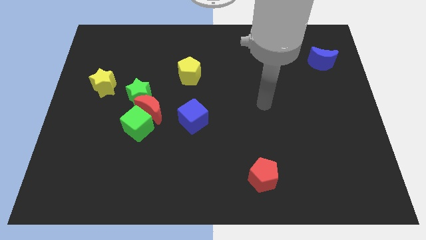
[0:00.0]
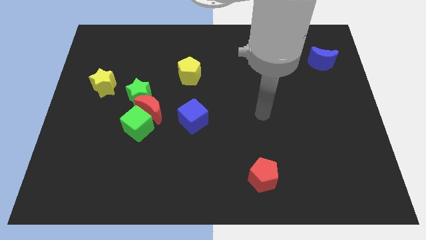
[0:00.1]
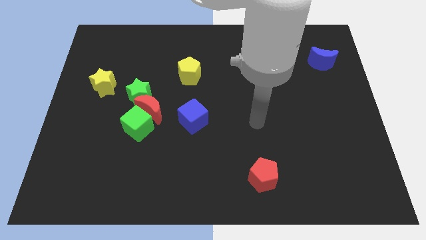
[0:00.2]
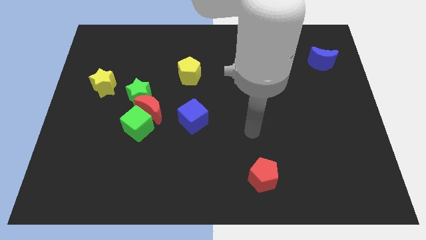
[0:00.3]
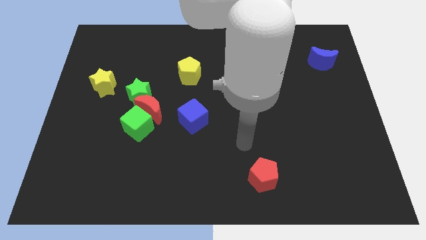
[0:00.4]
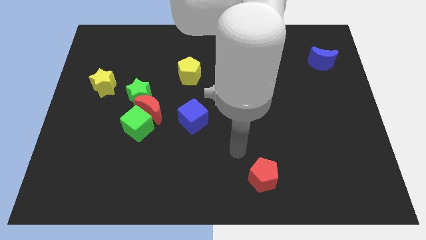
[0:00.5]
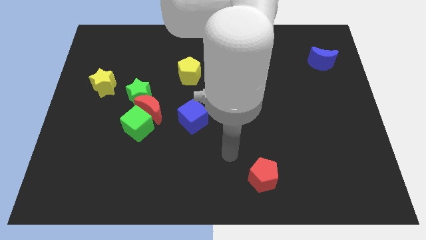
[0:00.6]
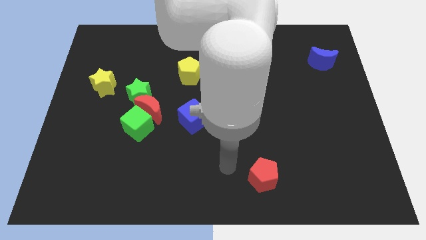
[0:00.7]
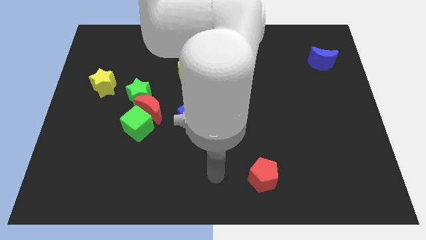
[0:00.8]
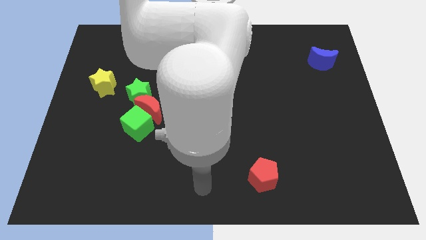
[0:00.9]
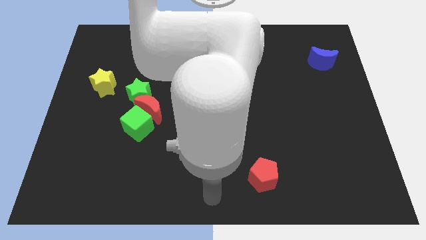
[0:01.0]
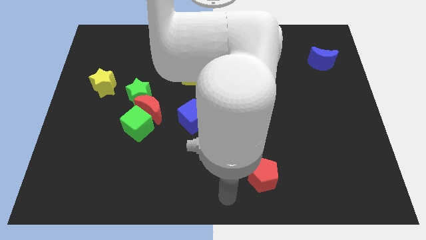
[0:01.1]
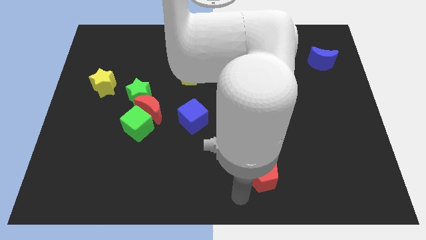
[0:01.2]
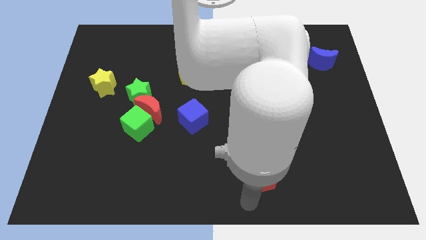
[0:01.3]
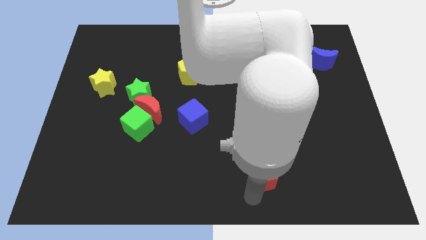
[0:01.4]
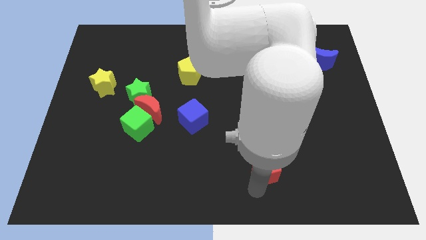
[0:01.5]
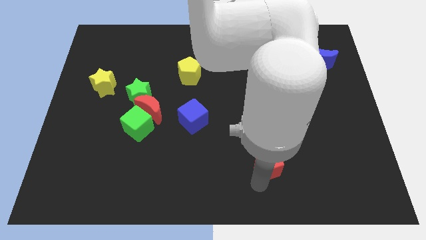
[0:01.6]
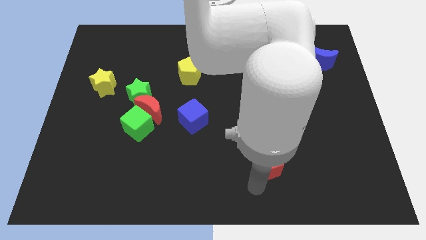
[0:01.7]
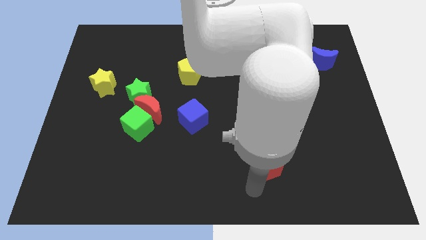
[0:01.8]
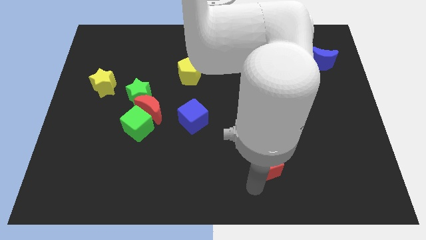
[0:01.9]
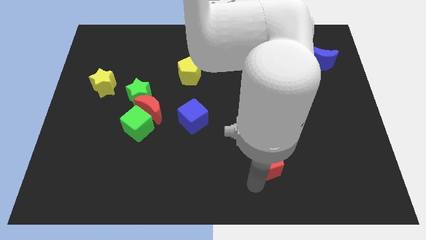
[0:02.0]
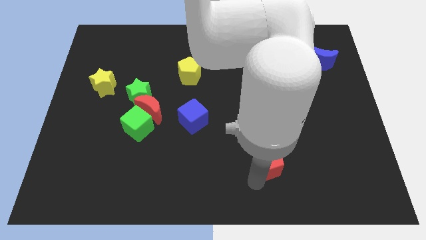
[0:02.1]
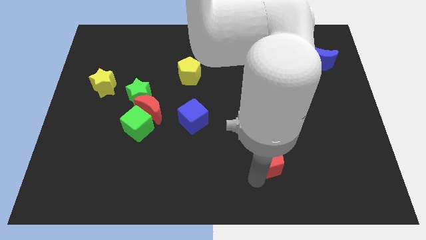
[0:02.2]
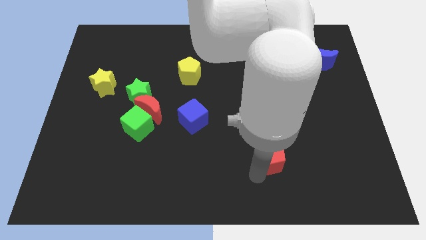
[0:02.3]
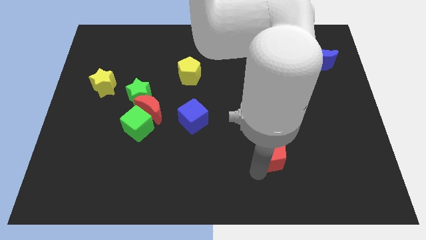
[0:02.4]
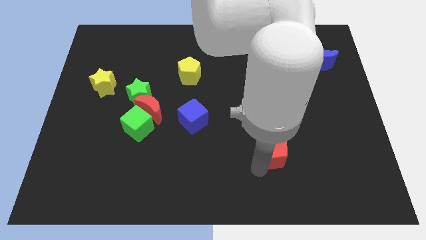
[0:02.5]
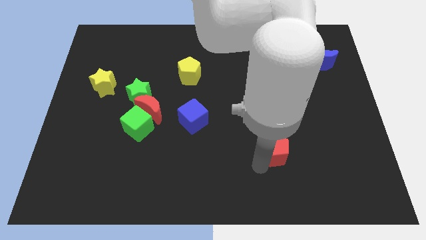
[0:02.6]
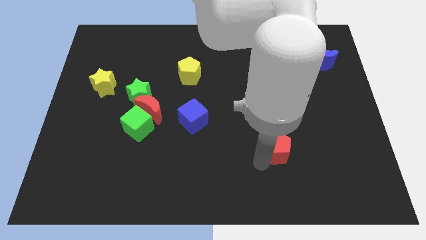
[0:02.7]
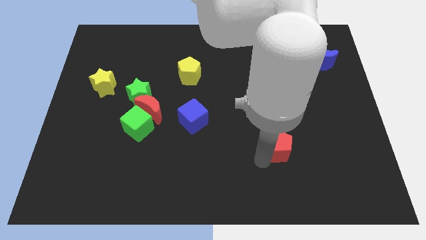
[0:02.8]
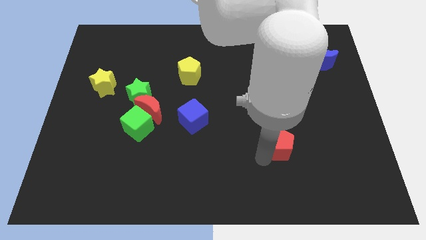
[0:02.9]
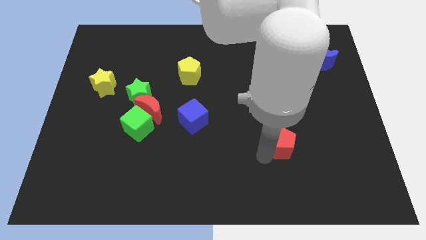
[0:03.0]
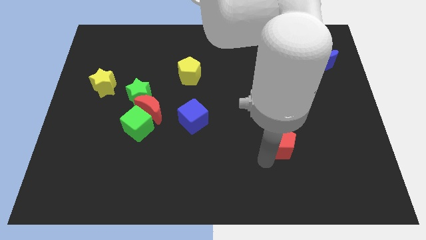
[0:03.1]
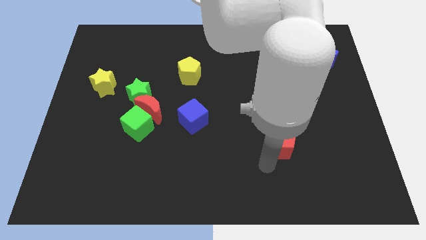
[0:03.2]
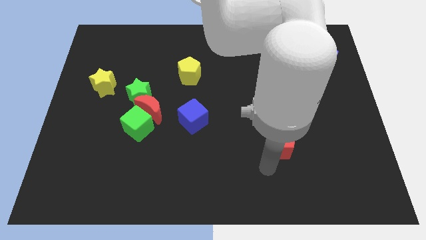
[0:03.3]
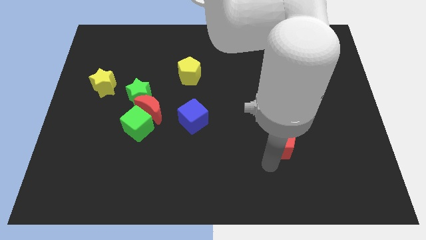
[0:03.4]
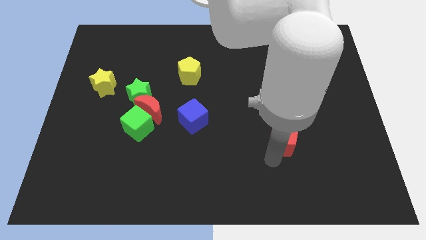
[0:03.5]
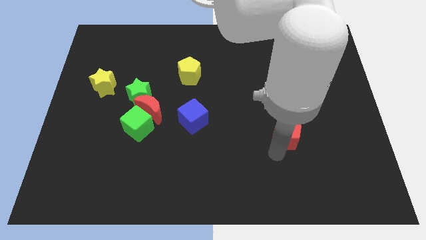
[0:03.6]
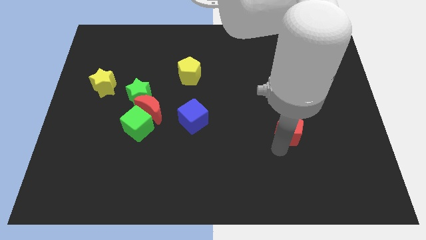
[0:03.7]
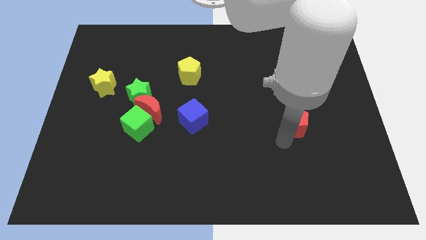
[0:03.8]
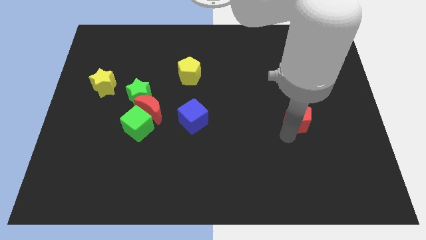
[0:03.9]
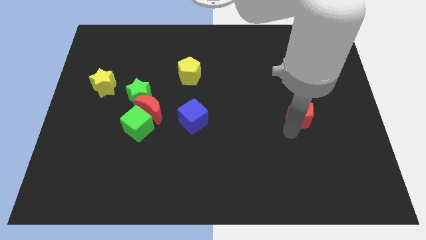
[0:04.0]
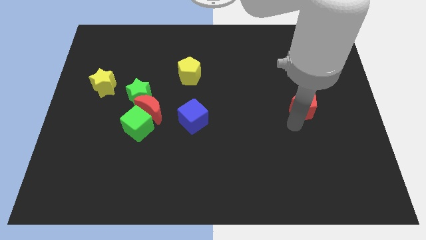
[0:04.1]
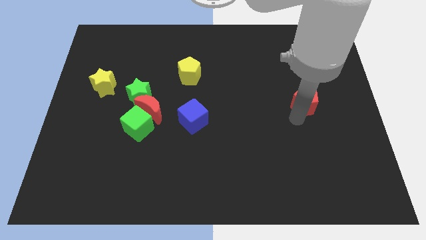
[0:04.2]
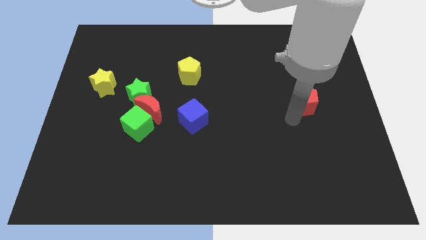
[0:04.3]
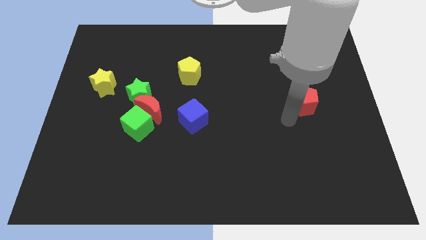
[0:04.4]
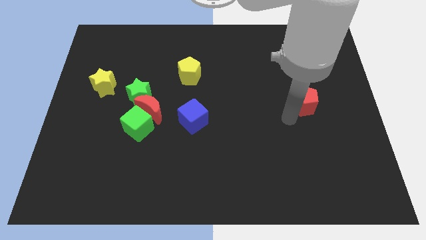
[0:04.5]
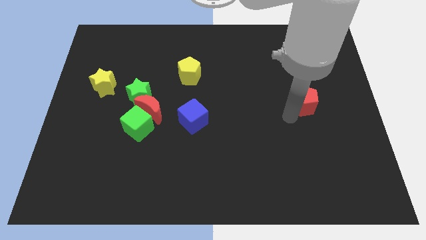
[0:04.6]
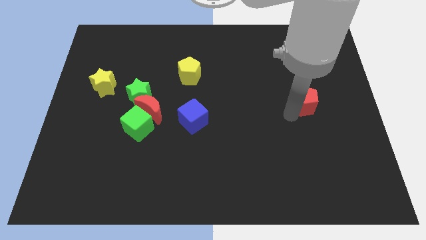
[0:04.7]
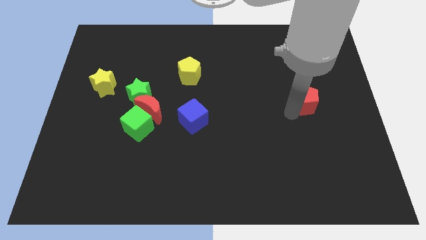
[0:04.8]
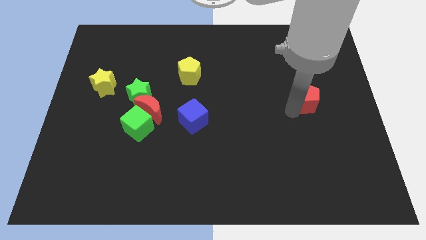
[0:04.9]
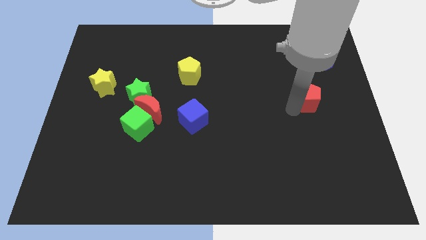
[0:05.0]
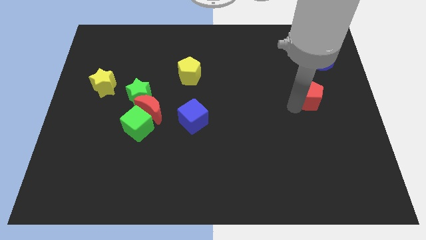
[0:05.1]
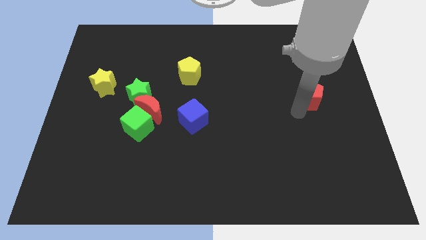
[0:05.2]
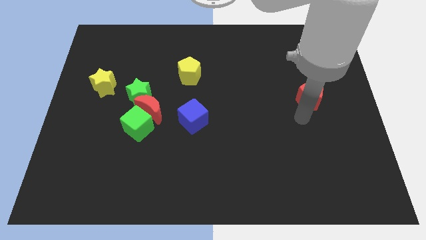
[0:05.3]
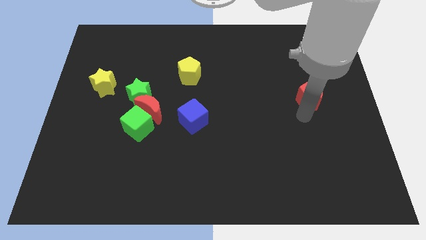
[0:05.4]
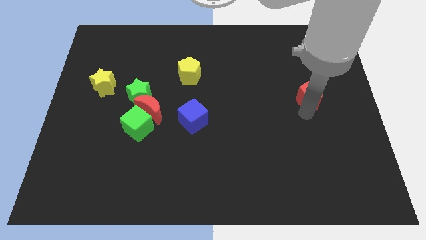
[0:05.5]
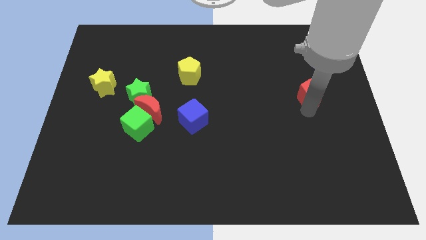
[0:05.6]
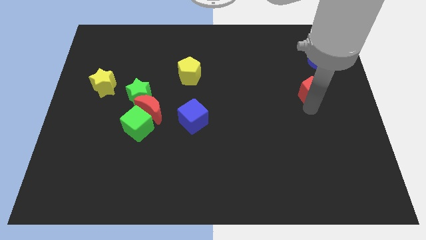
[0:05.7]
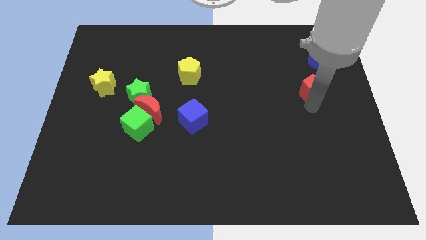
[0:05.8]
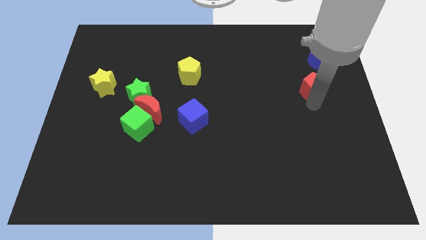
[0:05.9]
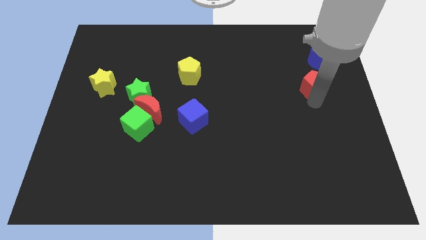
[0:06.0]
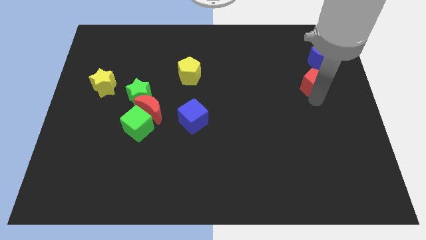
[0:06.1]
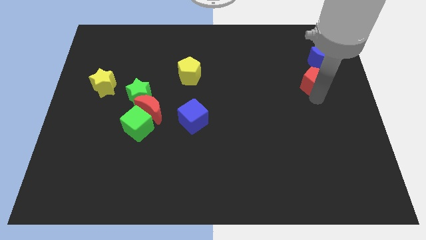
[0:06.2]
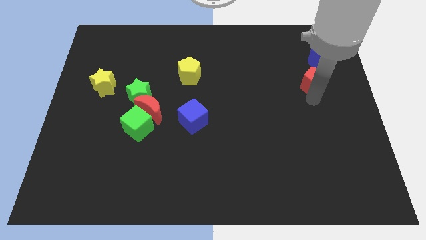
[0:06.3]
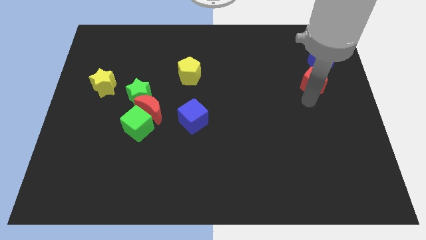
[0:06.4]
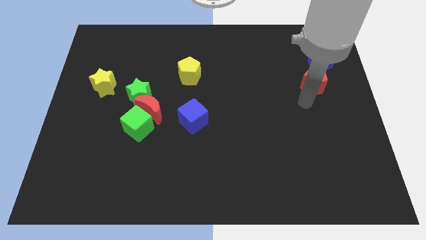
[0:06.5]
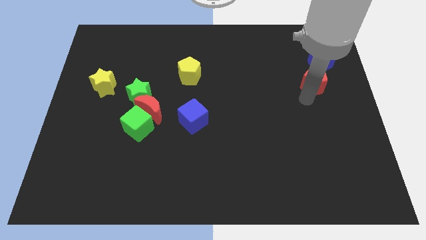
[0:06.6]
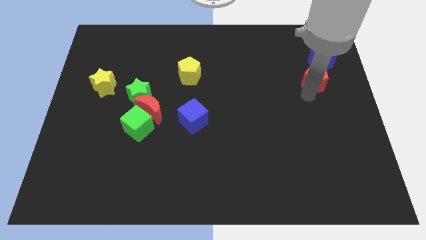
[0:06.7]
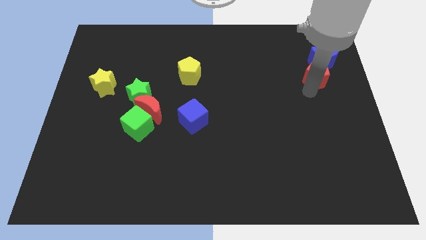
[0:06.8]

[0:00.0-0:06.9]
push the red pentagon towards the blue moon

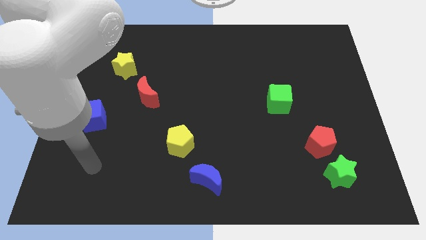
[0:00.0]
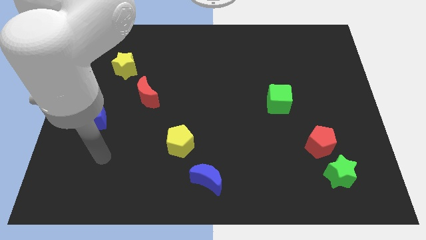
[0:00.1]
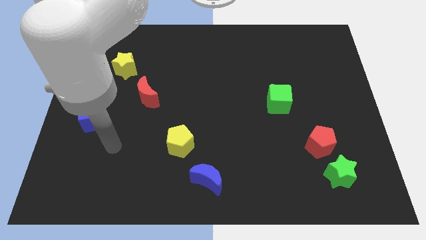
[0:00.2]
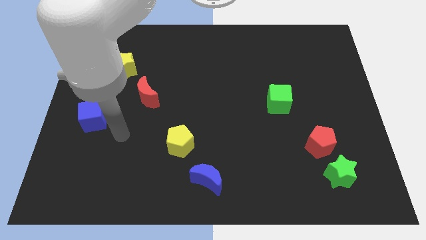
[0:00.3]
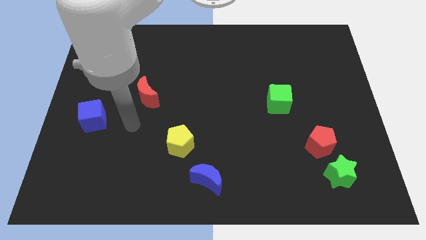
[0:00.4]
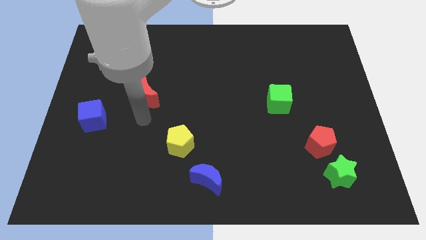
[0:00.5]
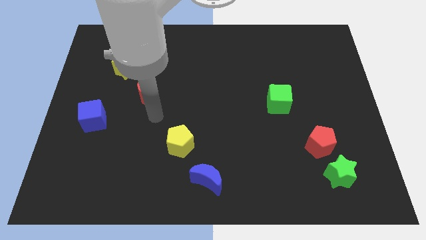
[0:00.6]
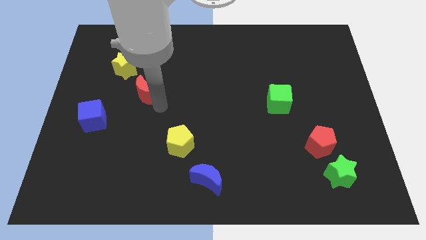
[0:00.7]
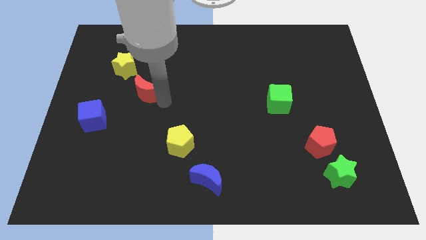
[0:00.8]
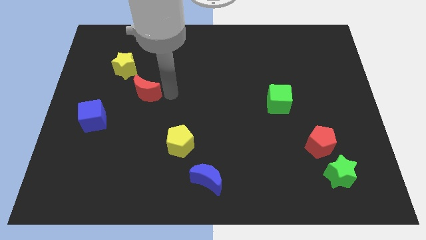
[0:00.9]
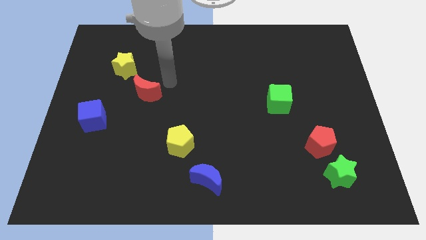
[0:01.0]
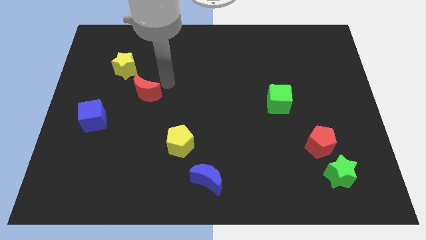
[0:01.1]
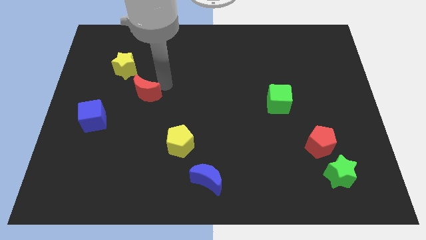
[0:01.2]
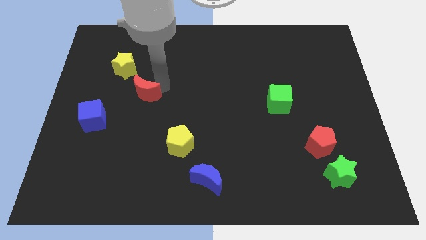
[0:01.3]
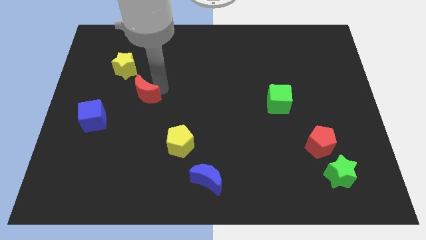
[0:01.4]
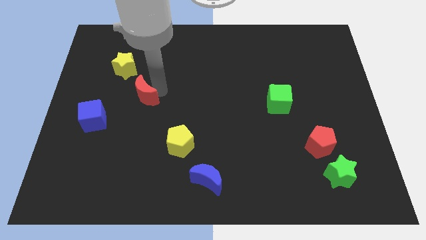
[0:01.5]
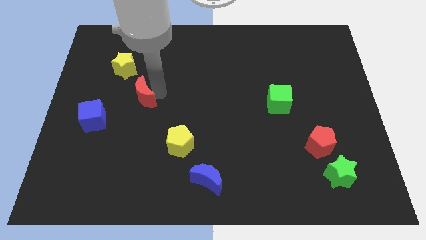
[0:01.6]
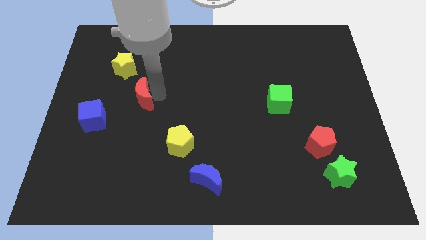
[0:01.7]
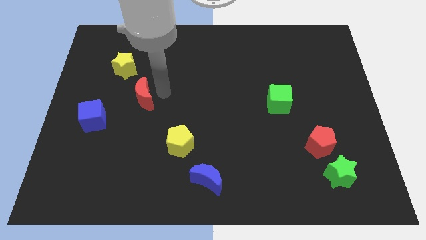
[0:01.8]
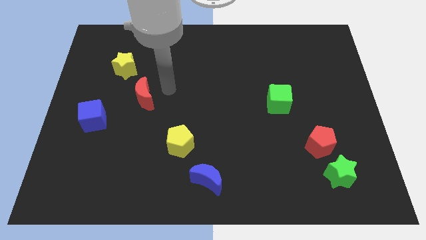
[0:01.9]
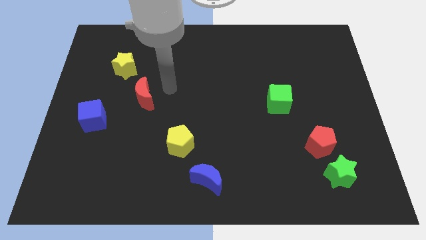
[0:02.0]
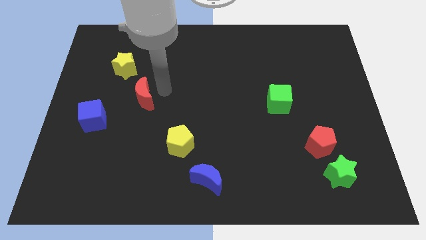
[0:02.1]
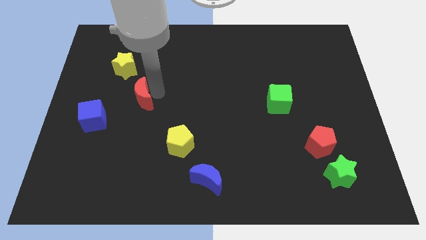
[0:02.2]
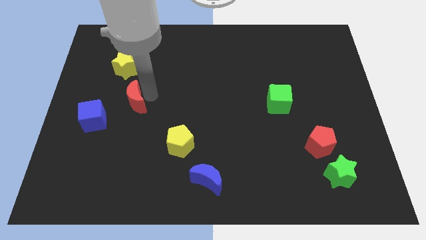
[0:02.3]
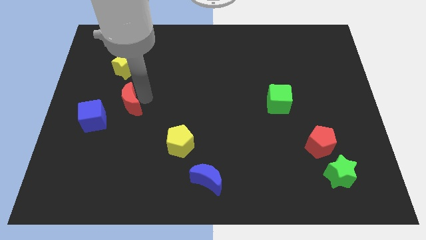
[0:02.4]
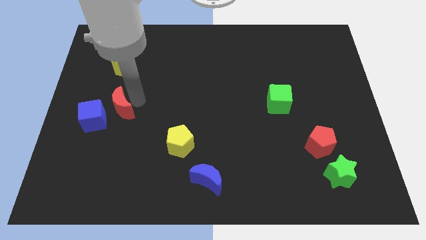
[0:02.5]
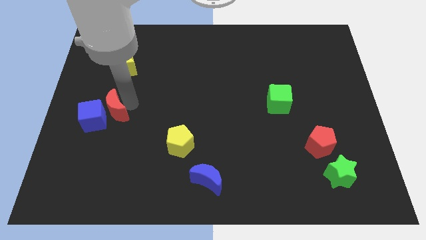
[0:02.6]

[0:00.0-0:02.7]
slide the red moon next to the blue cube
